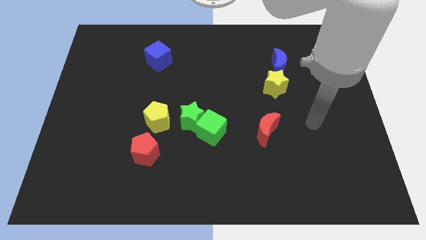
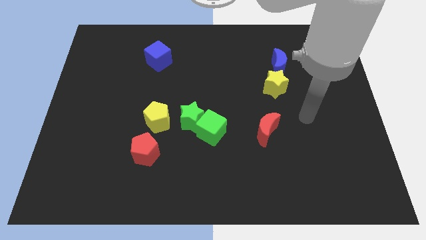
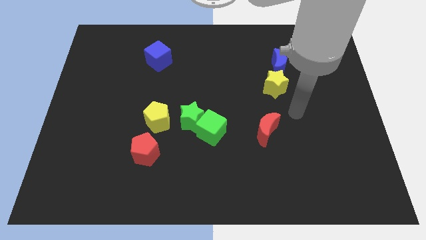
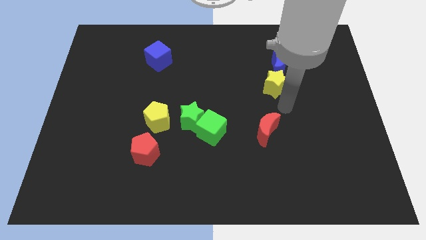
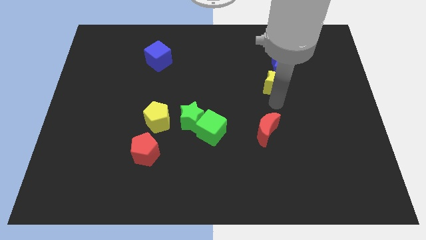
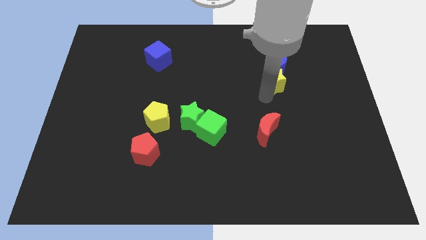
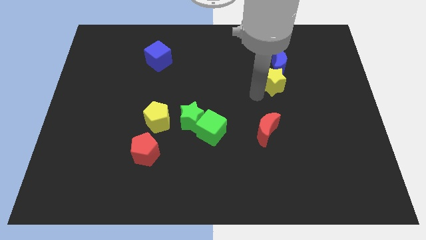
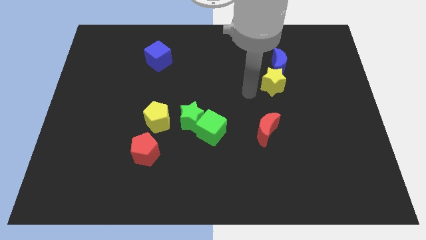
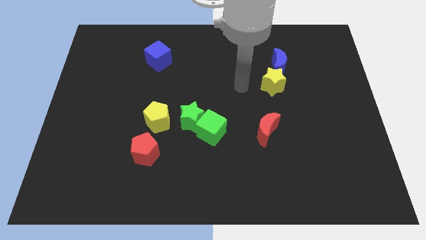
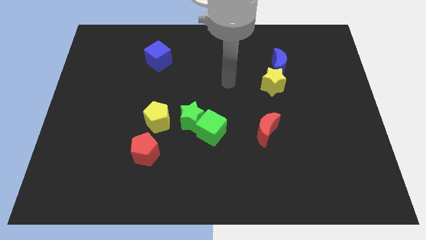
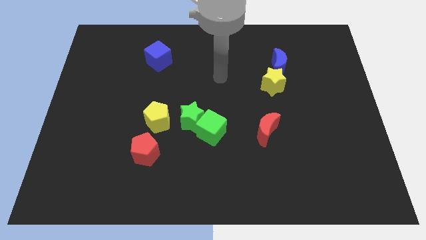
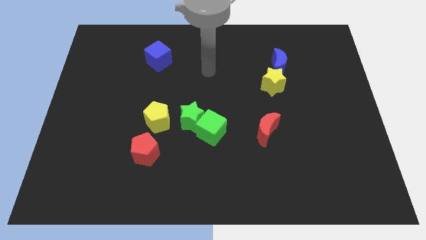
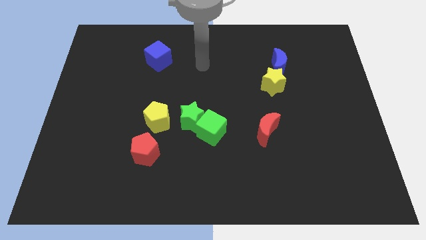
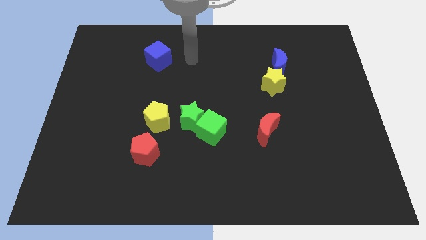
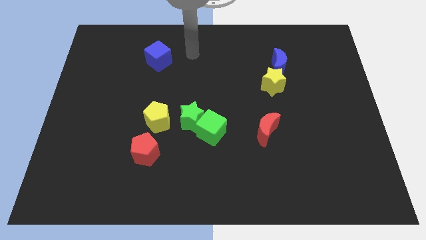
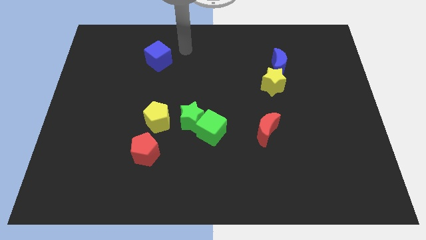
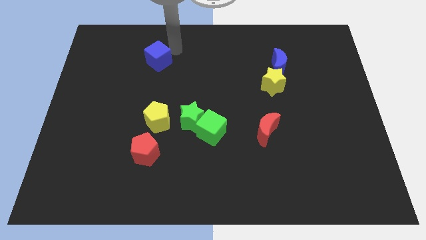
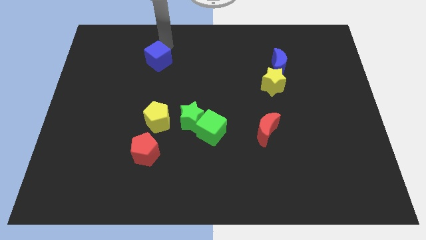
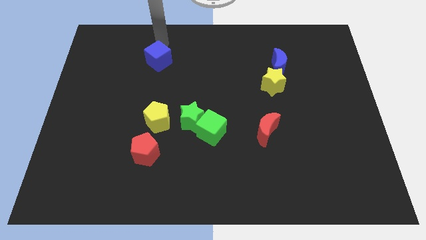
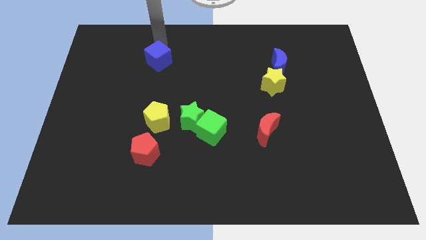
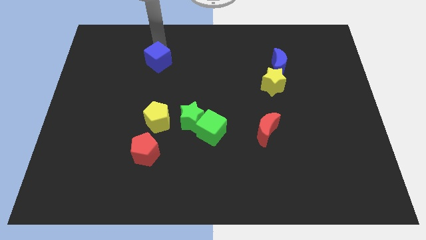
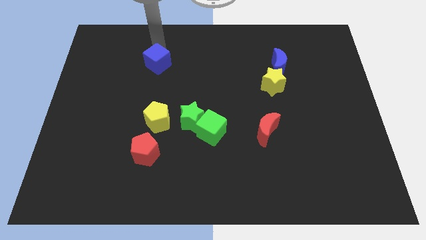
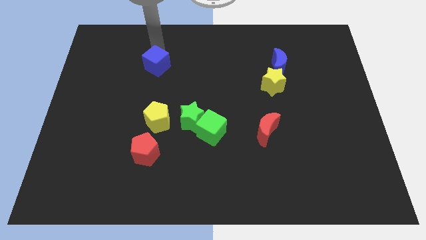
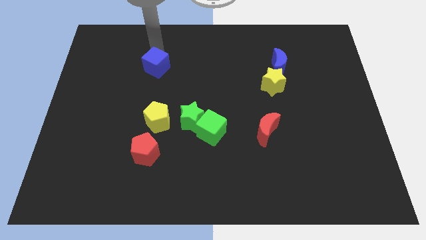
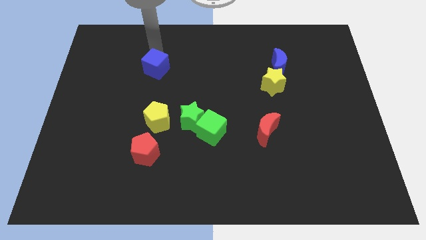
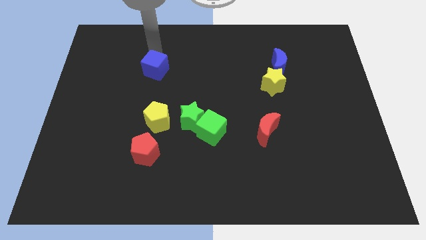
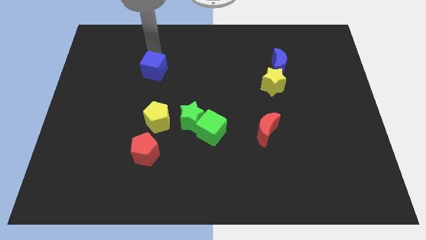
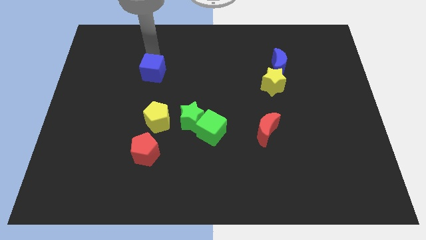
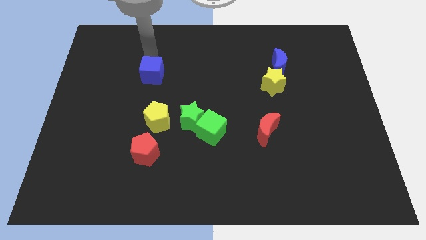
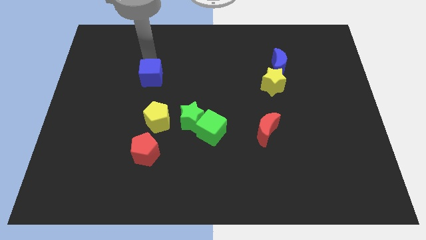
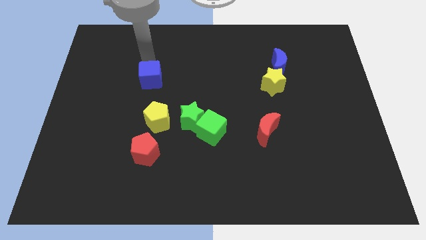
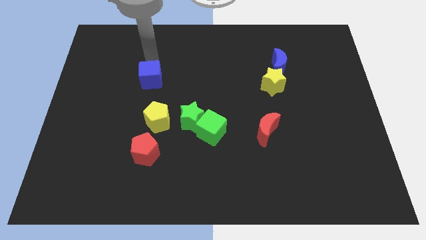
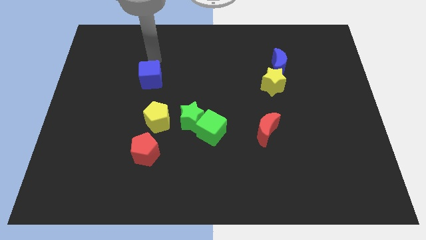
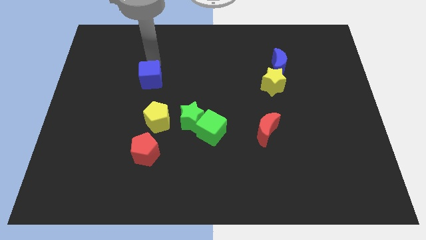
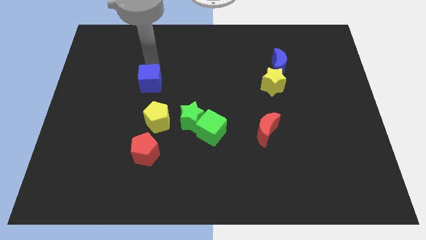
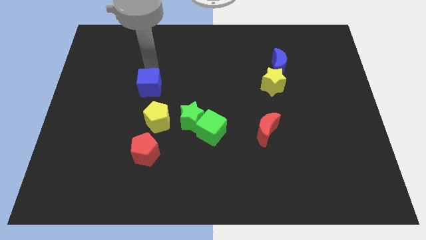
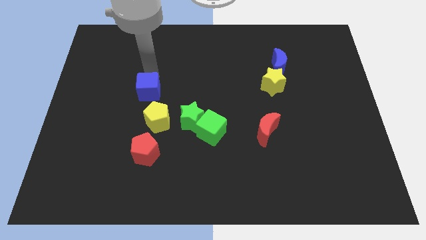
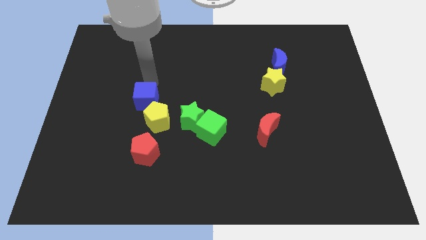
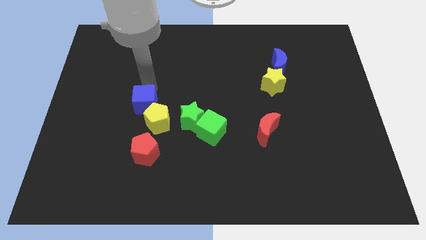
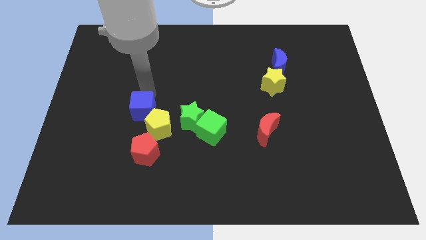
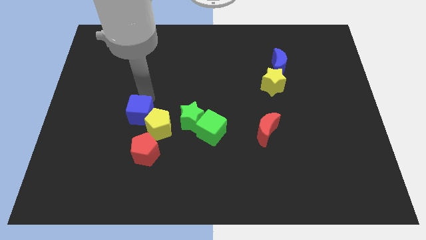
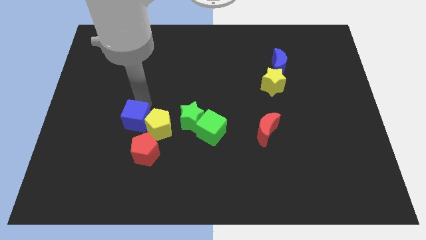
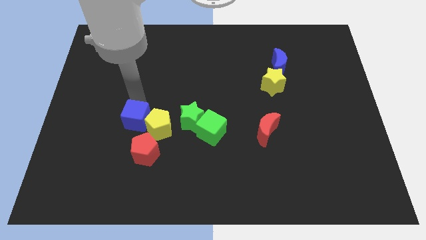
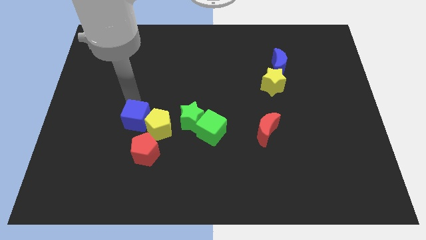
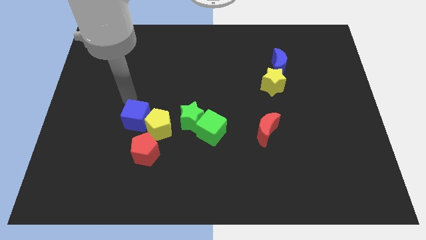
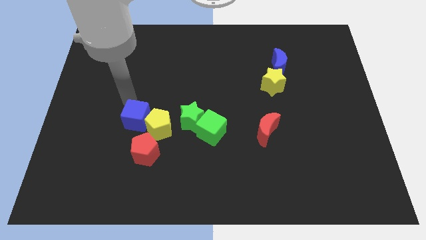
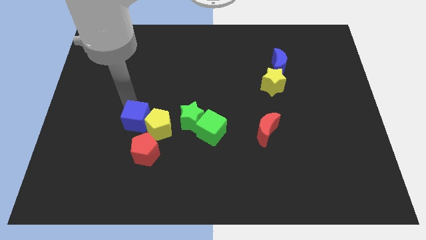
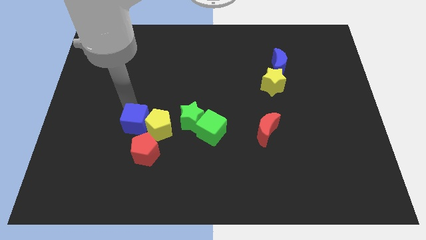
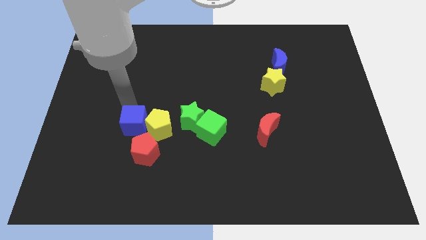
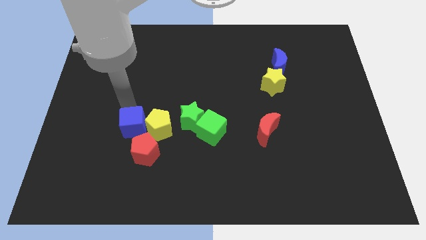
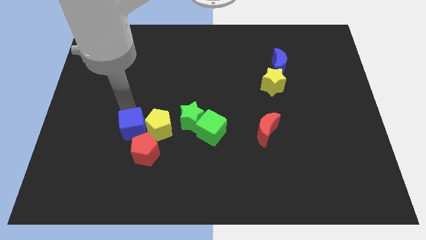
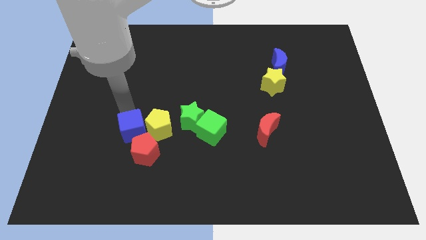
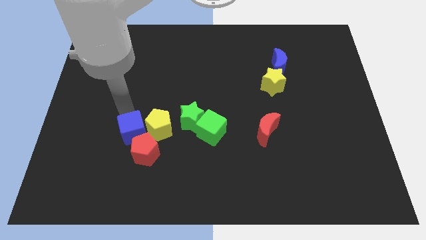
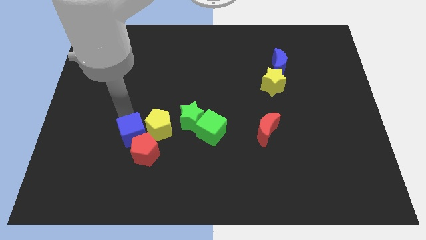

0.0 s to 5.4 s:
put the blue cube next to the red pentagon

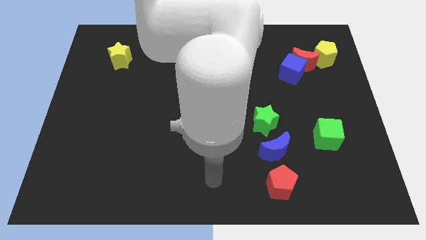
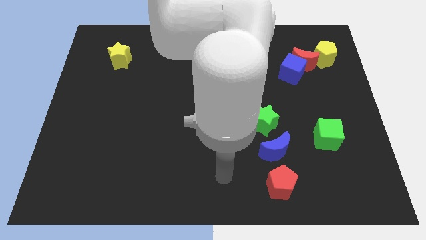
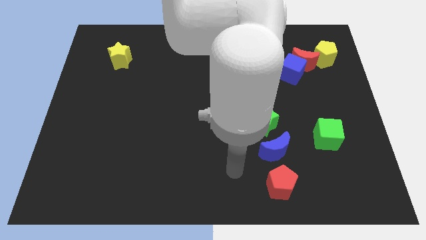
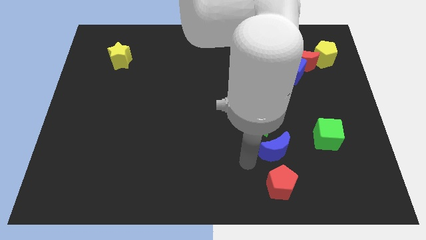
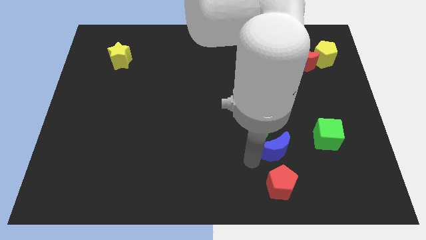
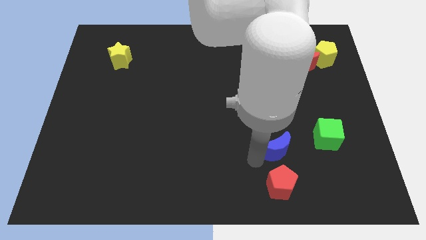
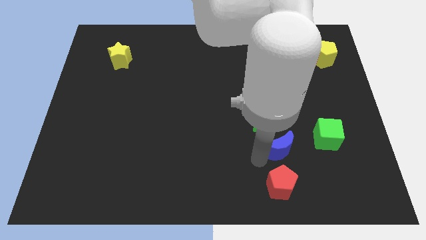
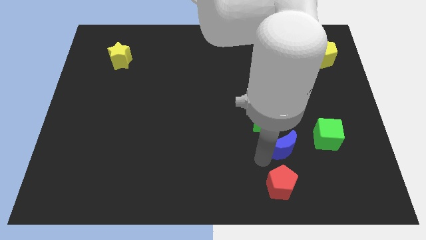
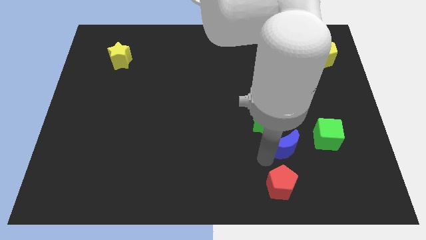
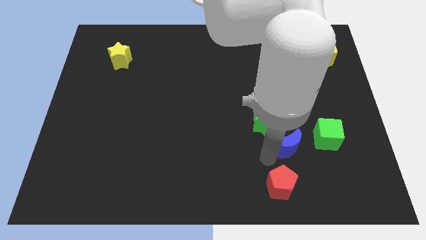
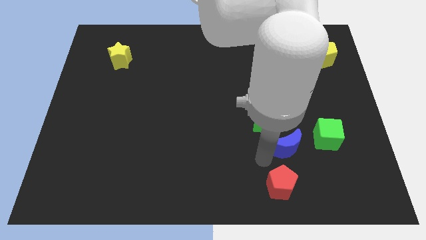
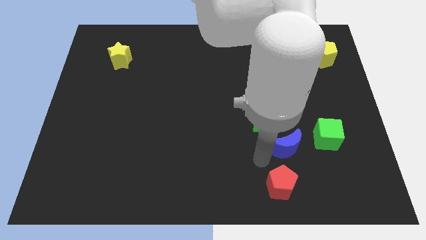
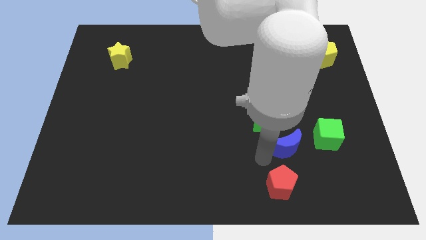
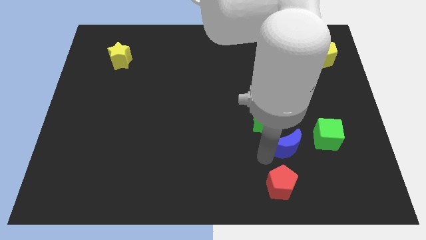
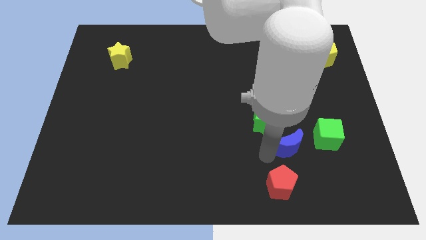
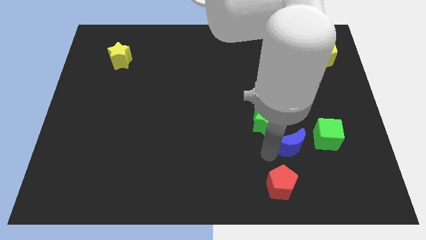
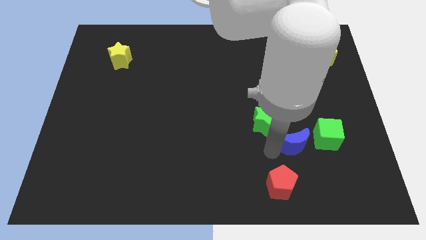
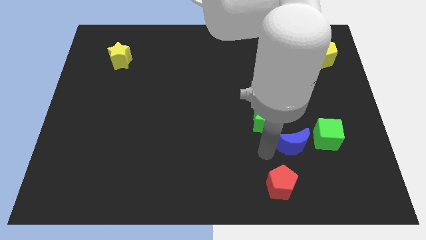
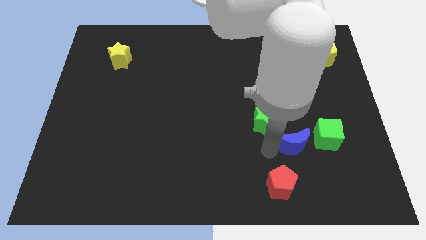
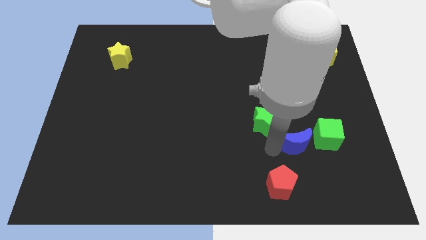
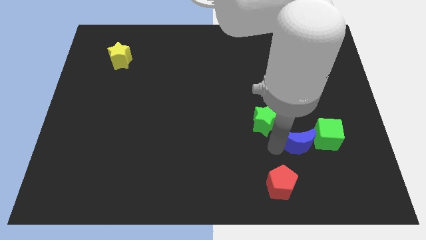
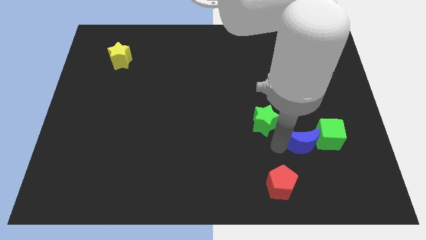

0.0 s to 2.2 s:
push the blue moon towards the green cube
